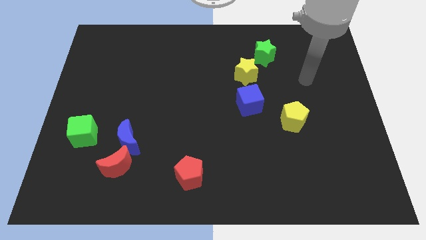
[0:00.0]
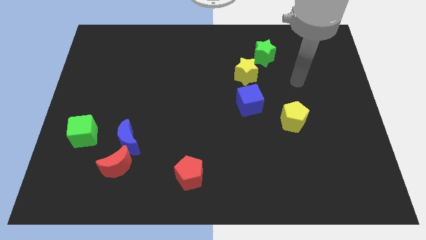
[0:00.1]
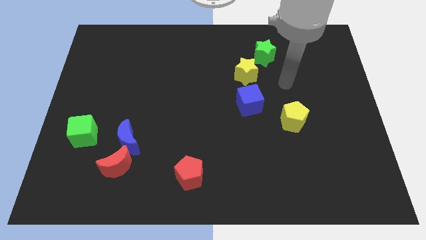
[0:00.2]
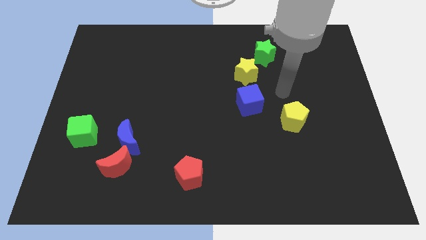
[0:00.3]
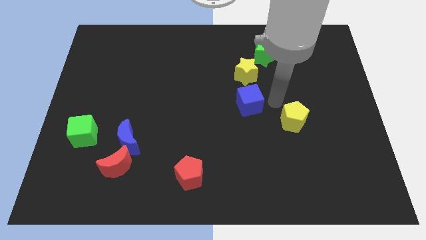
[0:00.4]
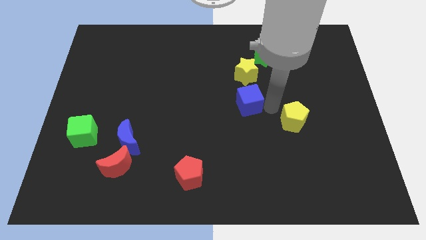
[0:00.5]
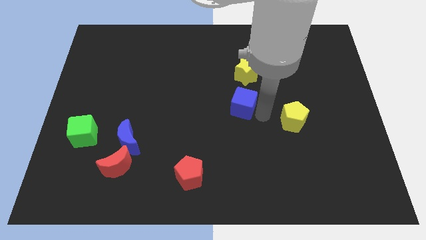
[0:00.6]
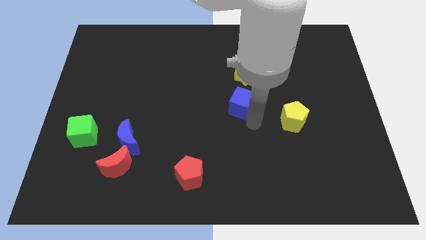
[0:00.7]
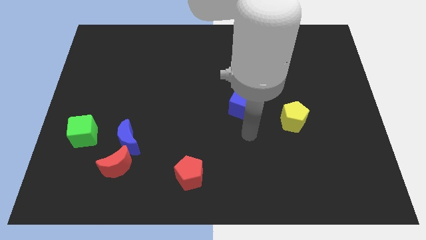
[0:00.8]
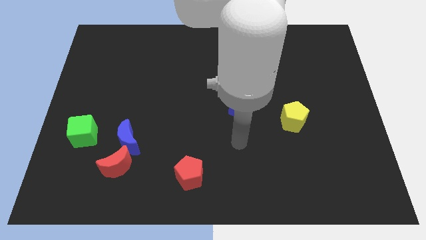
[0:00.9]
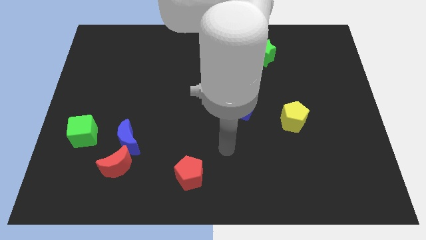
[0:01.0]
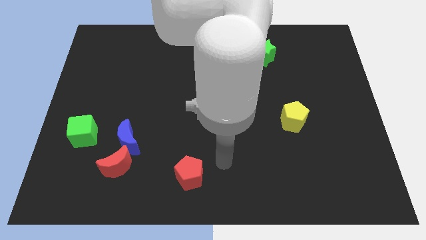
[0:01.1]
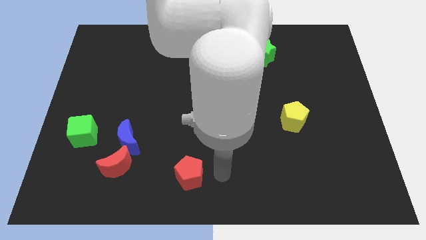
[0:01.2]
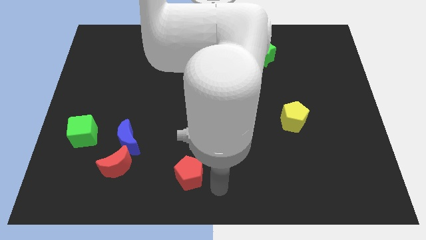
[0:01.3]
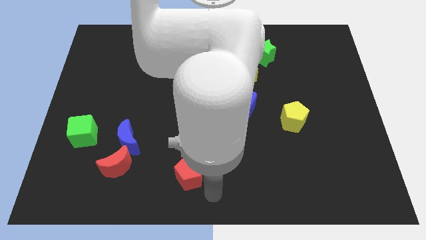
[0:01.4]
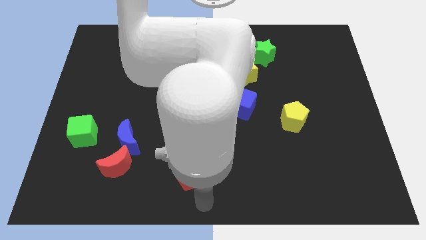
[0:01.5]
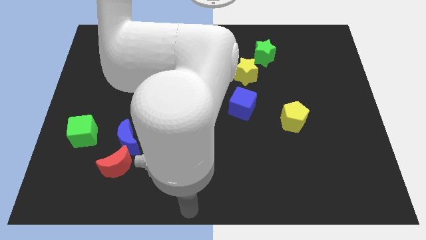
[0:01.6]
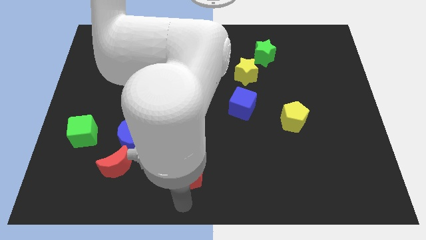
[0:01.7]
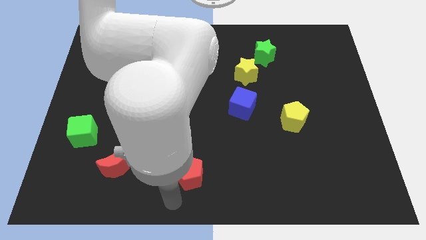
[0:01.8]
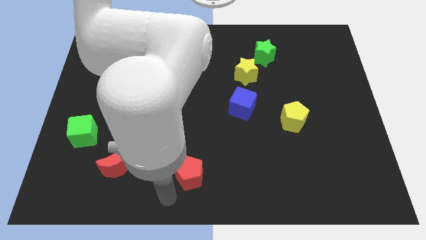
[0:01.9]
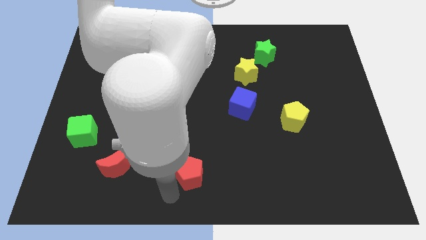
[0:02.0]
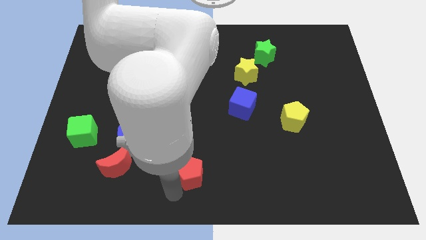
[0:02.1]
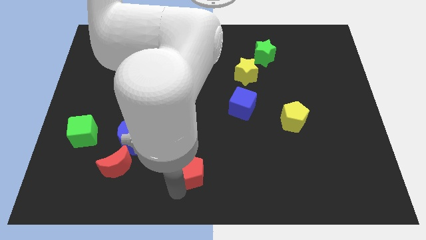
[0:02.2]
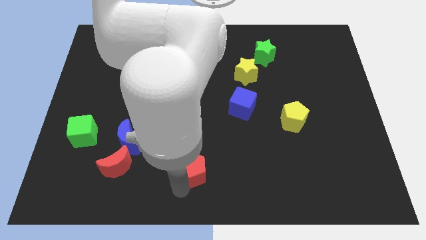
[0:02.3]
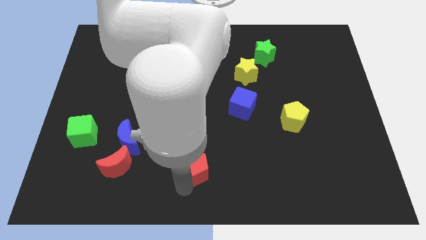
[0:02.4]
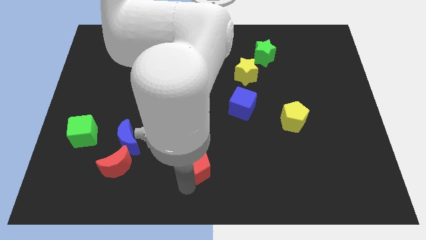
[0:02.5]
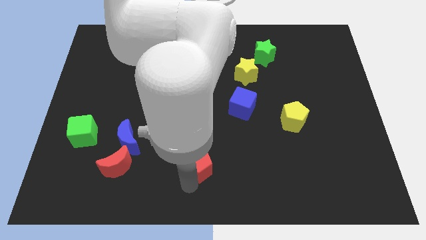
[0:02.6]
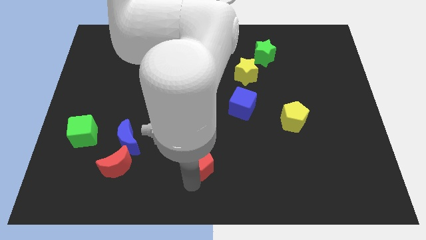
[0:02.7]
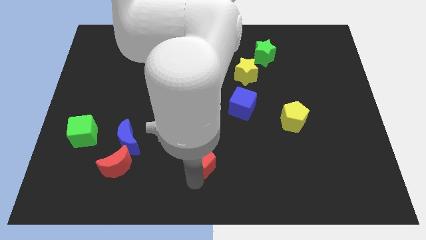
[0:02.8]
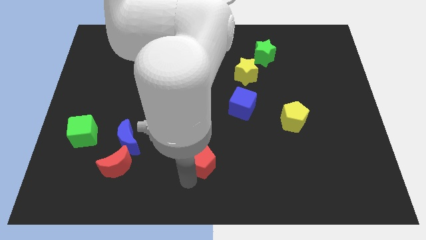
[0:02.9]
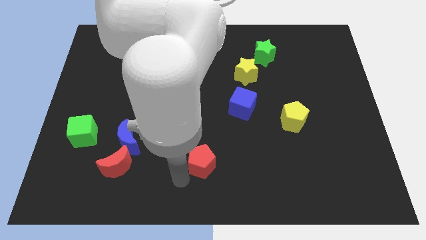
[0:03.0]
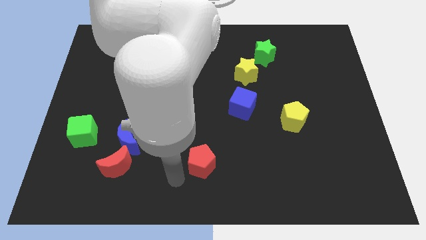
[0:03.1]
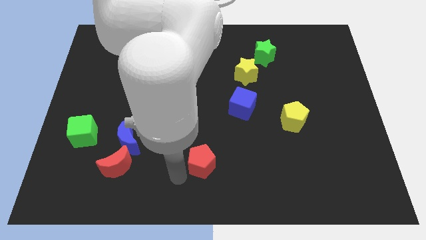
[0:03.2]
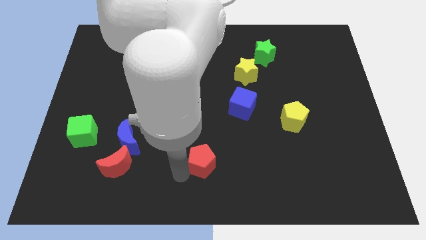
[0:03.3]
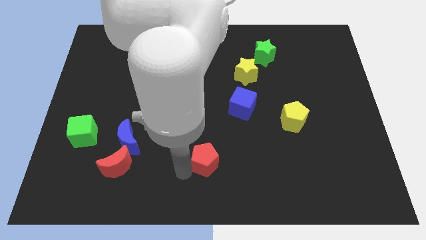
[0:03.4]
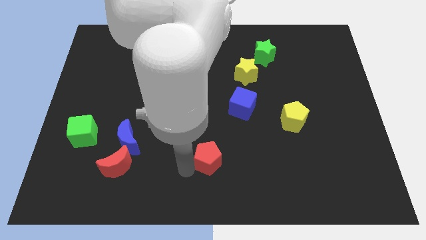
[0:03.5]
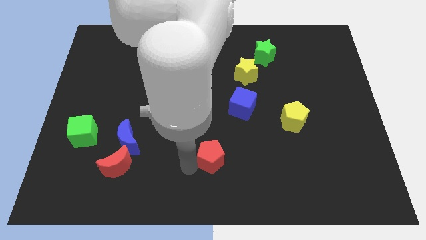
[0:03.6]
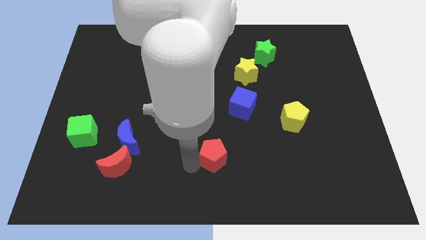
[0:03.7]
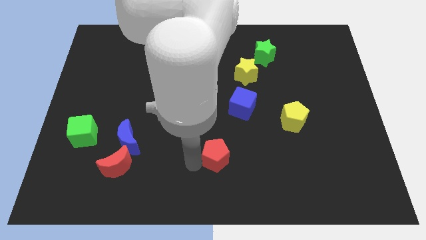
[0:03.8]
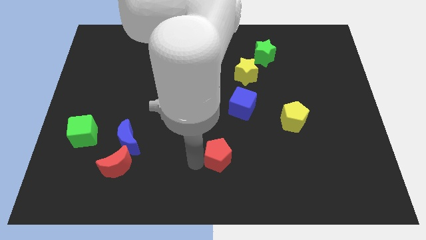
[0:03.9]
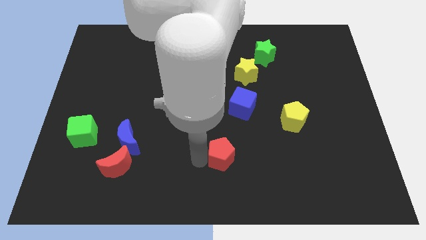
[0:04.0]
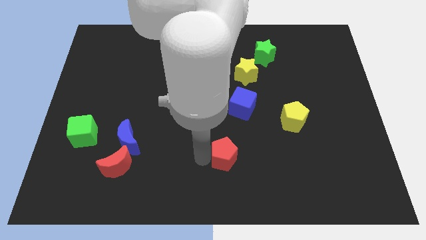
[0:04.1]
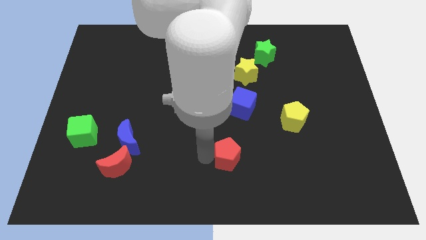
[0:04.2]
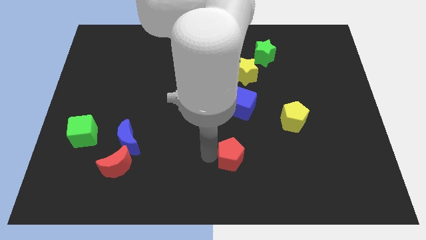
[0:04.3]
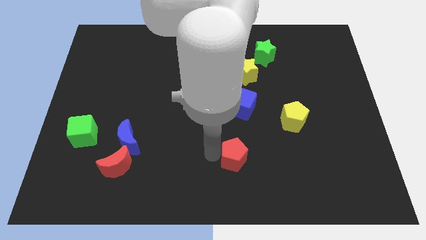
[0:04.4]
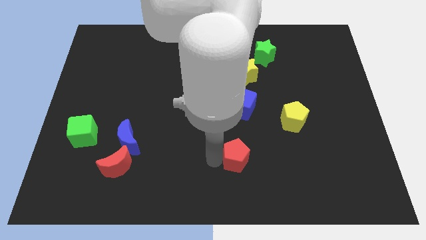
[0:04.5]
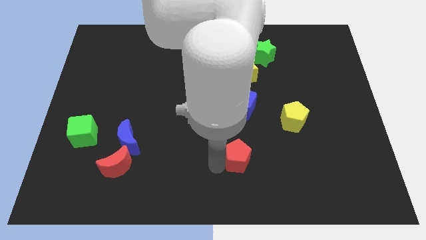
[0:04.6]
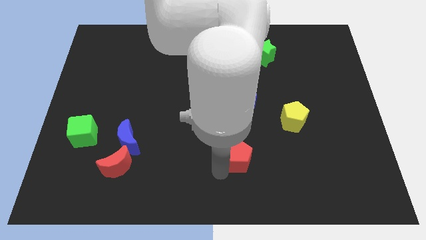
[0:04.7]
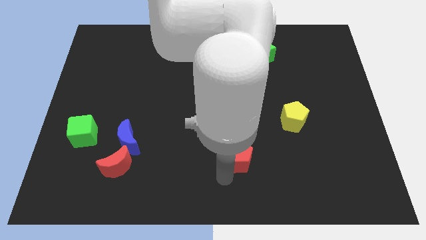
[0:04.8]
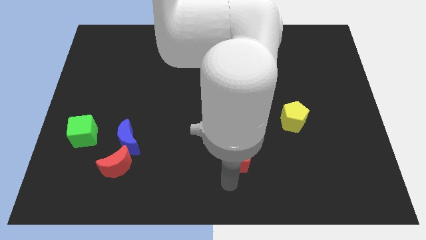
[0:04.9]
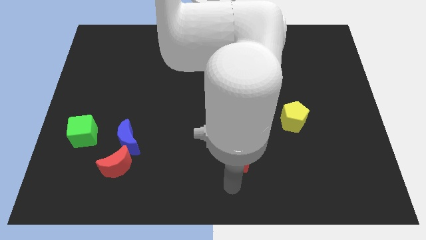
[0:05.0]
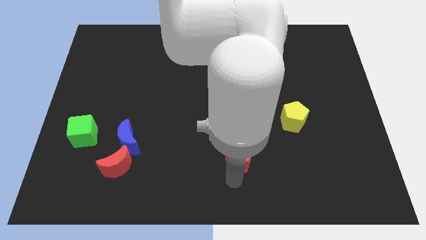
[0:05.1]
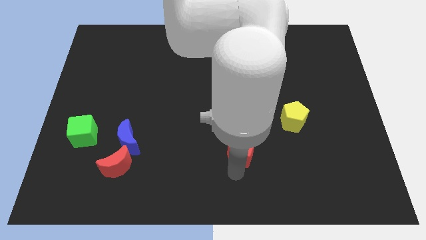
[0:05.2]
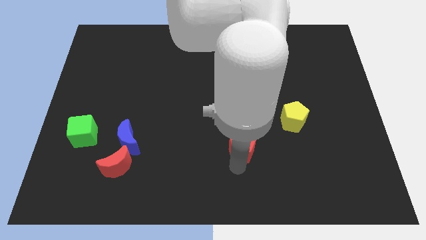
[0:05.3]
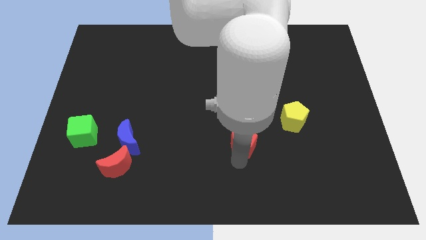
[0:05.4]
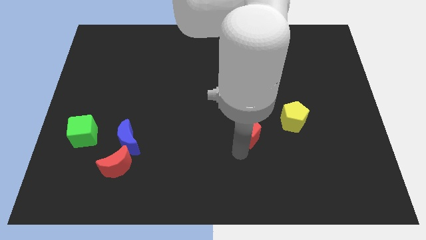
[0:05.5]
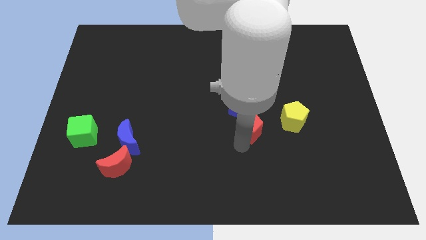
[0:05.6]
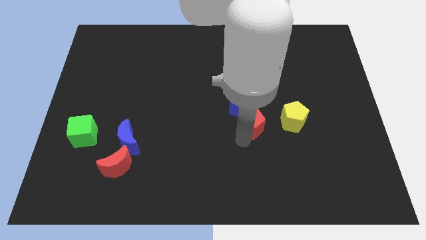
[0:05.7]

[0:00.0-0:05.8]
push the red pentagon below the yellow star

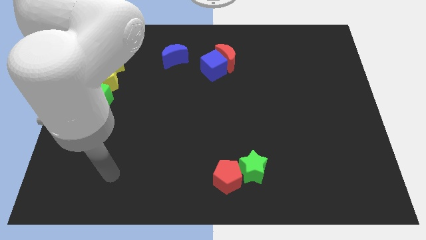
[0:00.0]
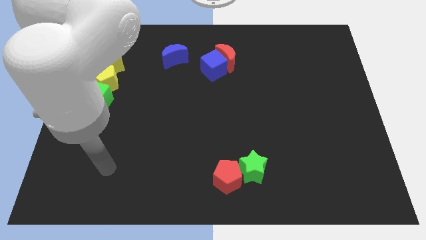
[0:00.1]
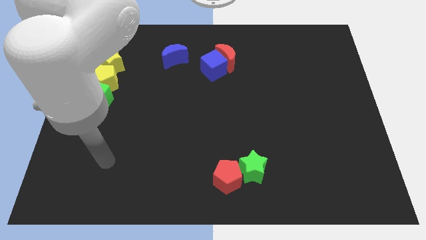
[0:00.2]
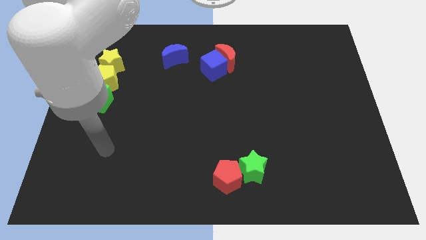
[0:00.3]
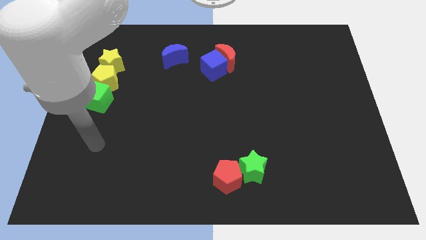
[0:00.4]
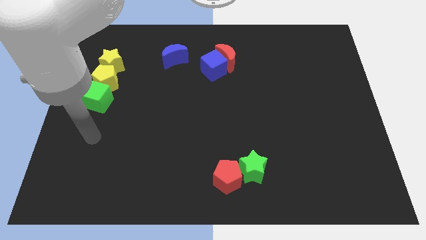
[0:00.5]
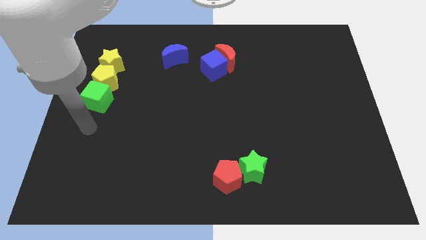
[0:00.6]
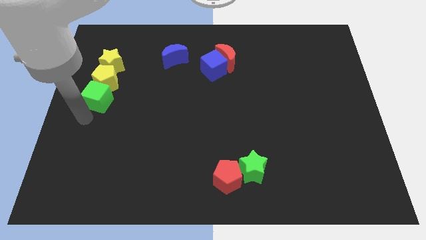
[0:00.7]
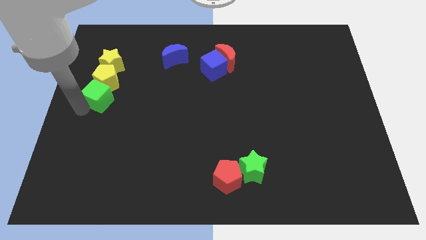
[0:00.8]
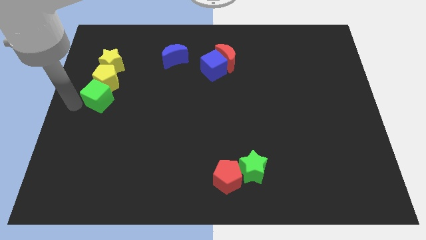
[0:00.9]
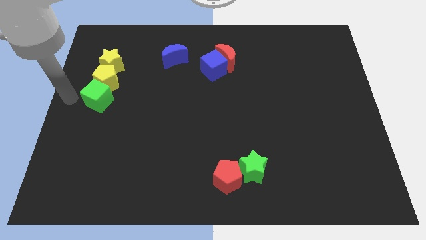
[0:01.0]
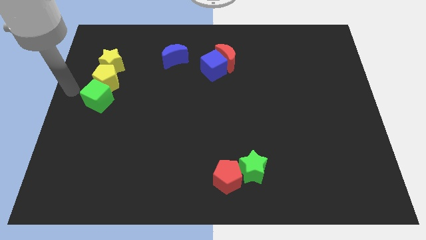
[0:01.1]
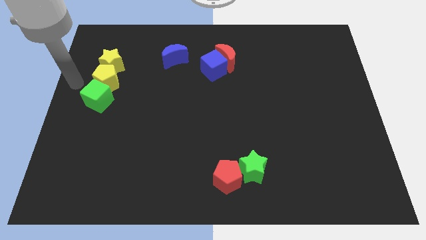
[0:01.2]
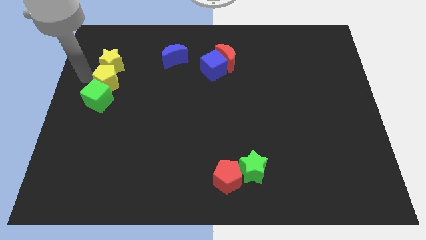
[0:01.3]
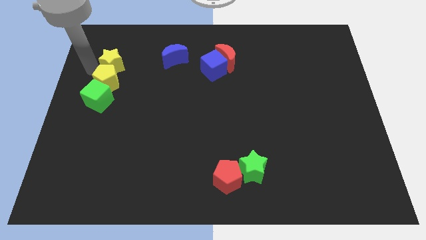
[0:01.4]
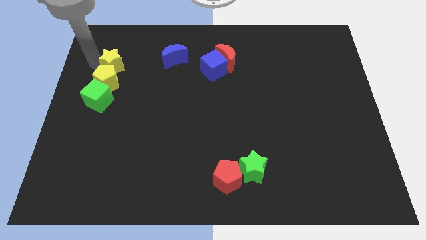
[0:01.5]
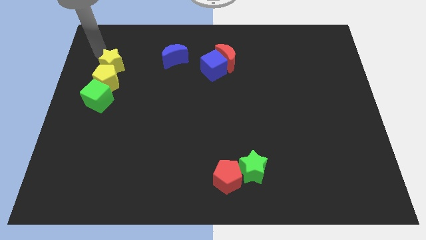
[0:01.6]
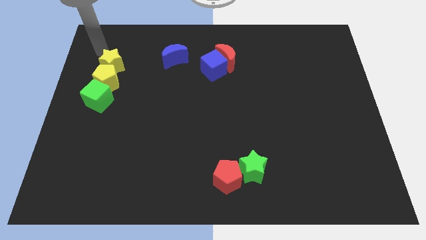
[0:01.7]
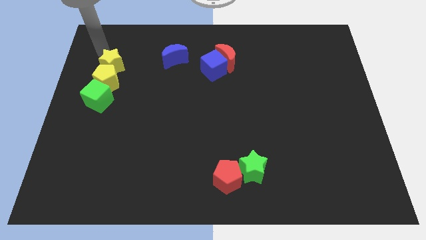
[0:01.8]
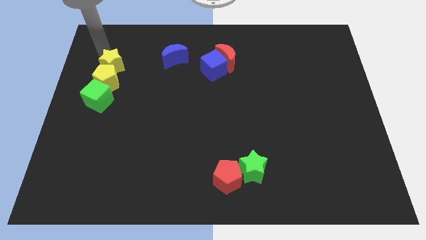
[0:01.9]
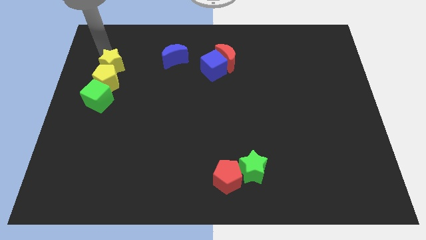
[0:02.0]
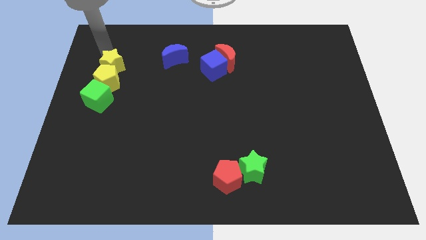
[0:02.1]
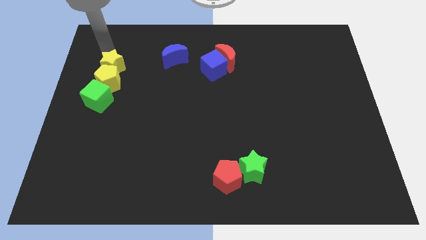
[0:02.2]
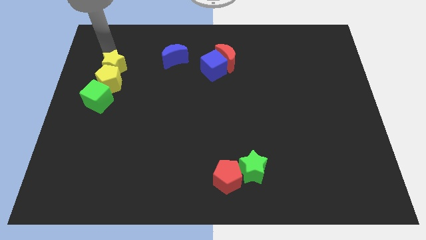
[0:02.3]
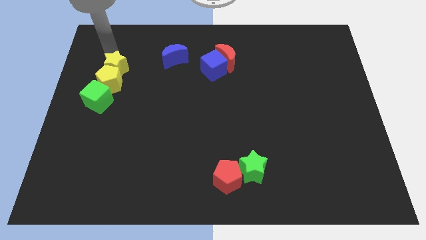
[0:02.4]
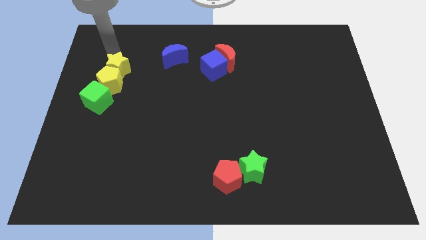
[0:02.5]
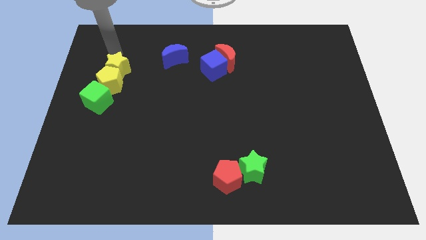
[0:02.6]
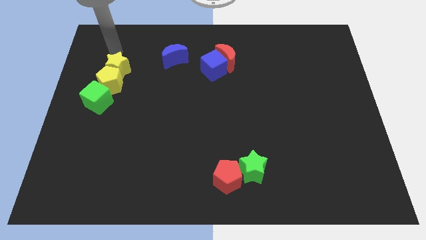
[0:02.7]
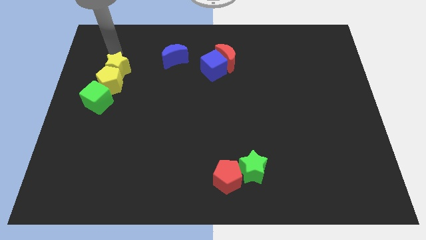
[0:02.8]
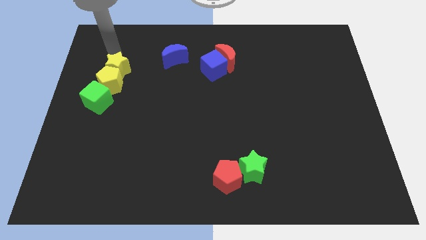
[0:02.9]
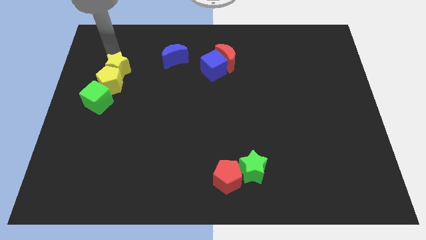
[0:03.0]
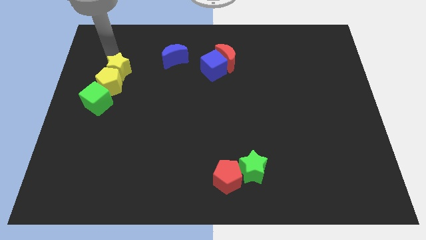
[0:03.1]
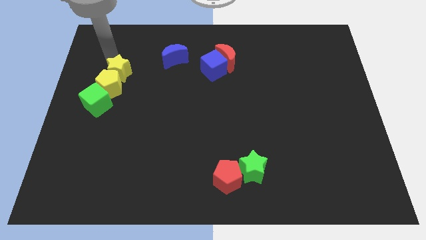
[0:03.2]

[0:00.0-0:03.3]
move the yellow star diagonally up and to the right of the green cube
